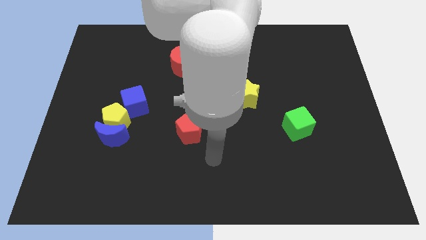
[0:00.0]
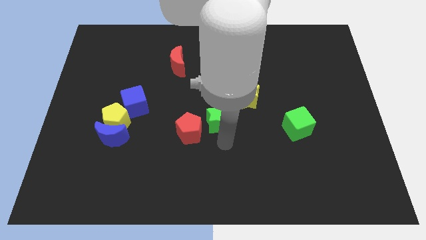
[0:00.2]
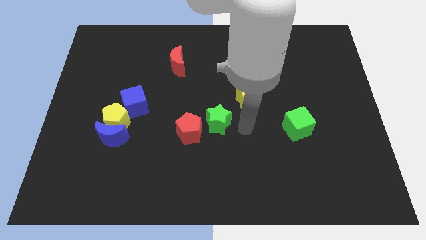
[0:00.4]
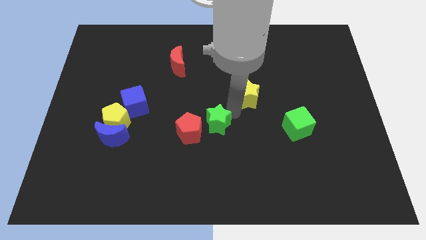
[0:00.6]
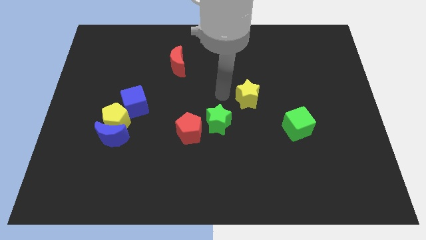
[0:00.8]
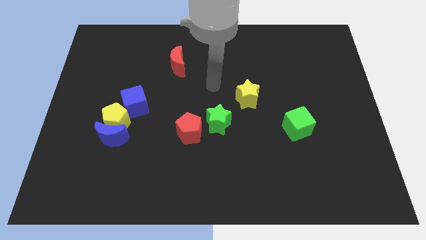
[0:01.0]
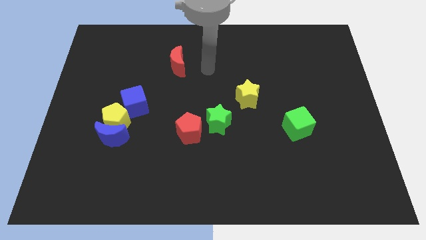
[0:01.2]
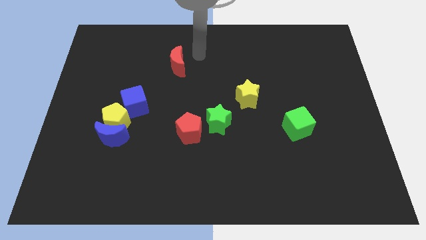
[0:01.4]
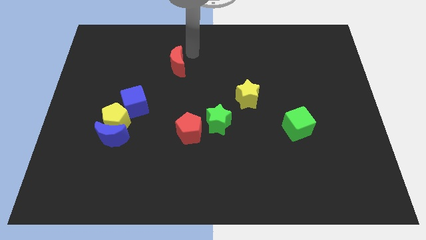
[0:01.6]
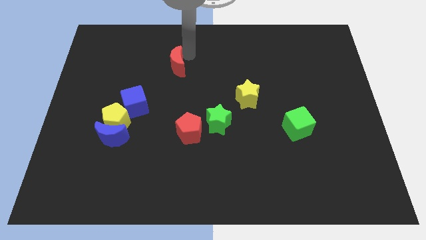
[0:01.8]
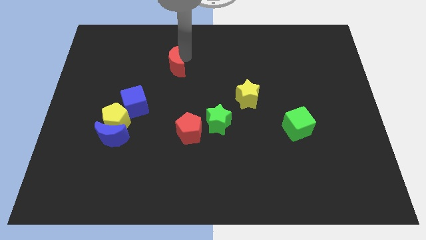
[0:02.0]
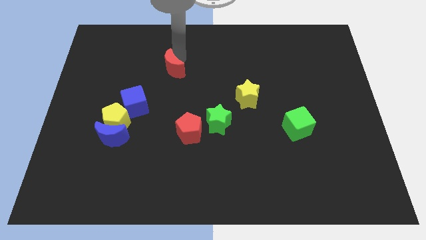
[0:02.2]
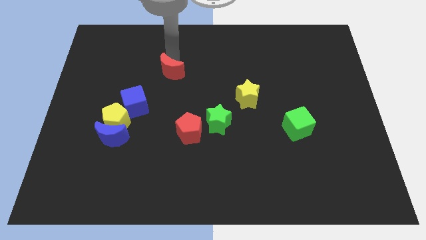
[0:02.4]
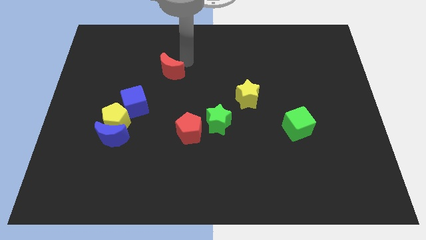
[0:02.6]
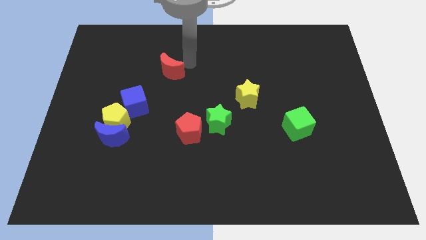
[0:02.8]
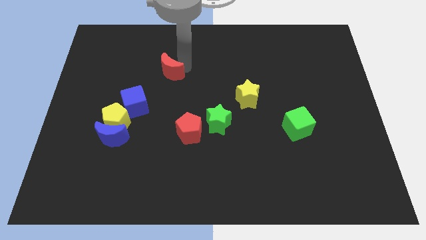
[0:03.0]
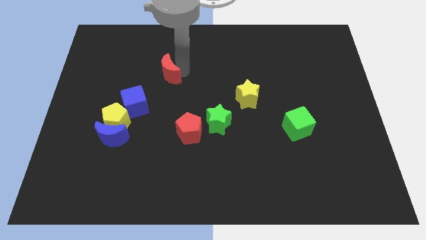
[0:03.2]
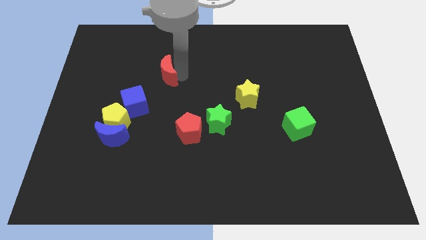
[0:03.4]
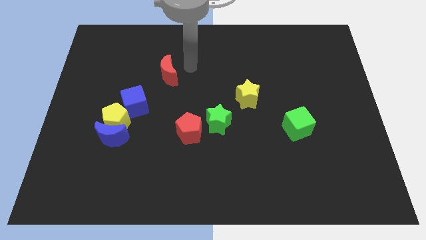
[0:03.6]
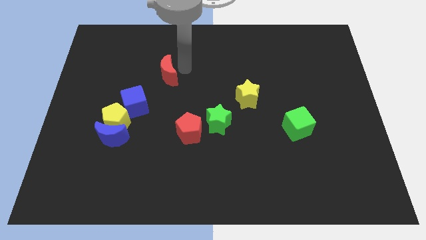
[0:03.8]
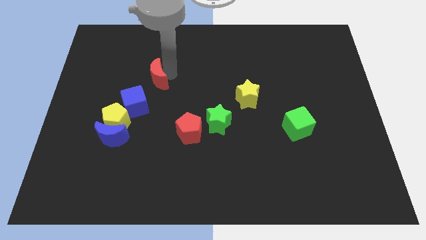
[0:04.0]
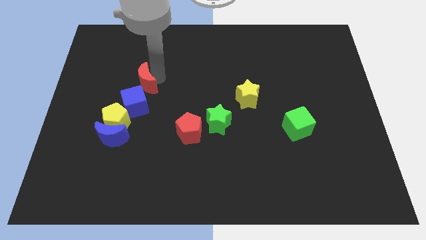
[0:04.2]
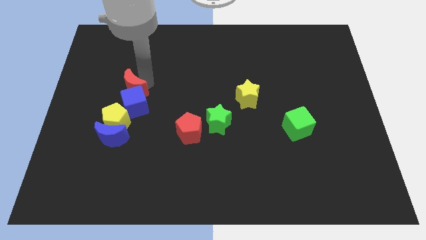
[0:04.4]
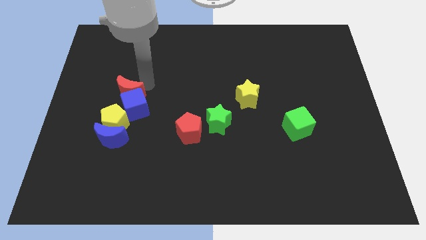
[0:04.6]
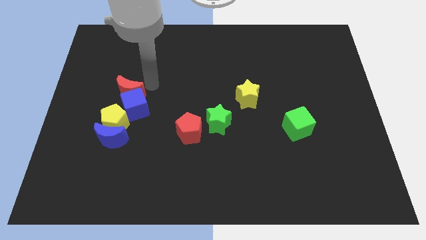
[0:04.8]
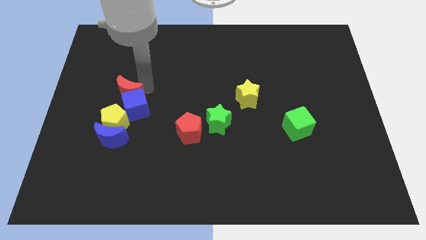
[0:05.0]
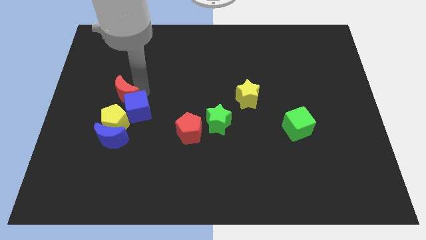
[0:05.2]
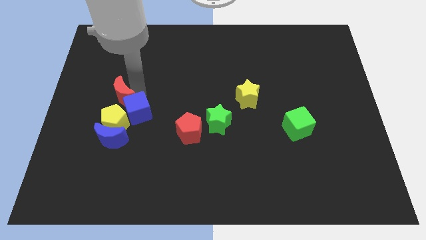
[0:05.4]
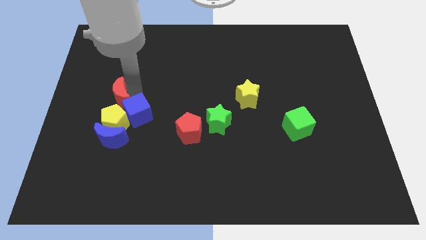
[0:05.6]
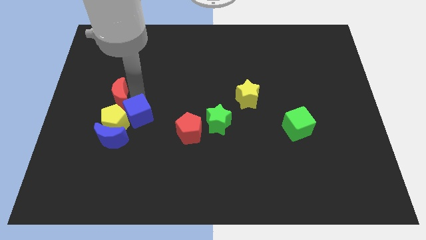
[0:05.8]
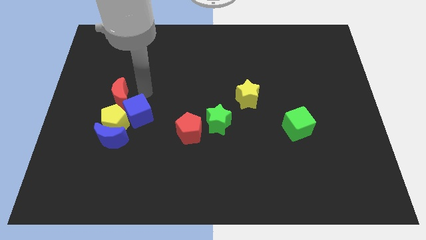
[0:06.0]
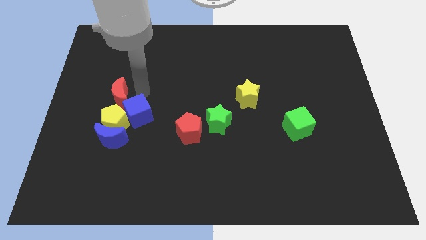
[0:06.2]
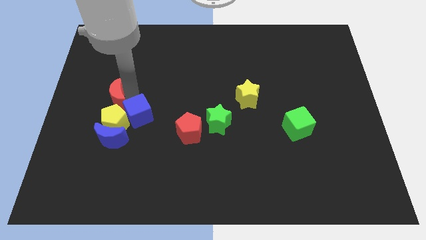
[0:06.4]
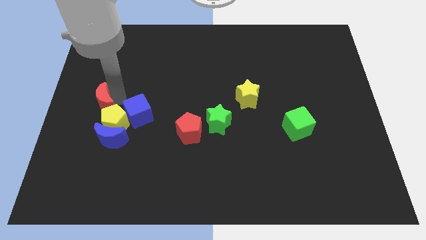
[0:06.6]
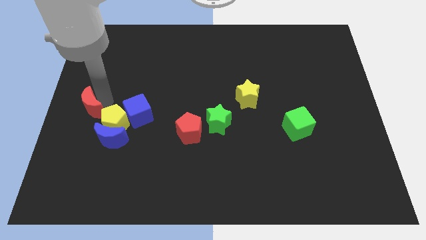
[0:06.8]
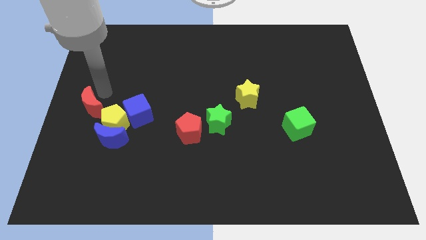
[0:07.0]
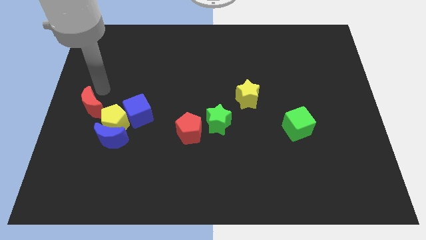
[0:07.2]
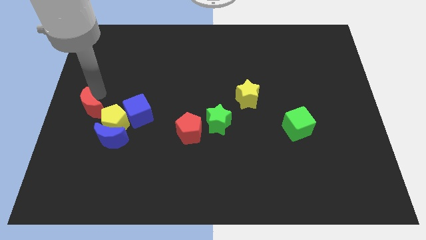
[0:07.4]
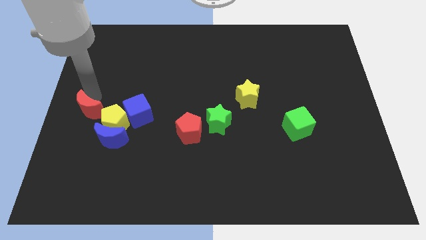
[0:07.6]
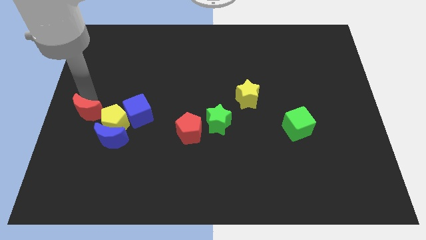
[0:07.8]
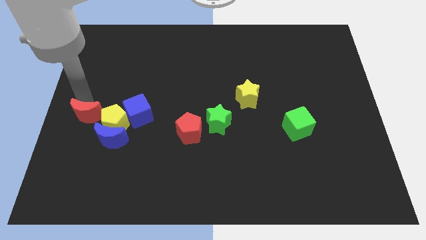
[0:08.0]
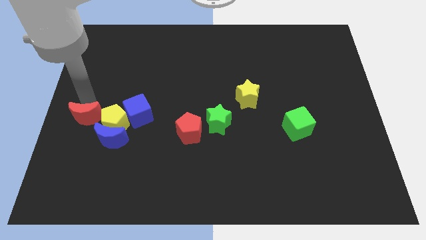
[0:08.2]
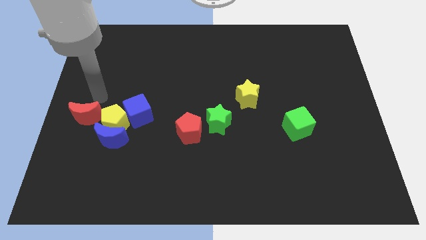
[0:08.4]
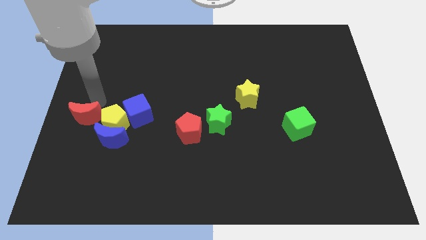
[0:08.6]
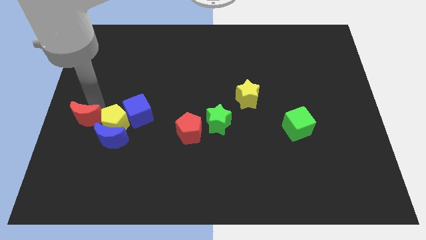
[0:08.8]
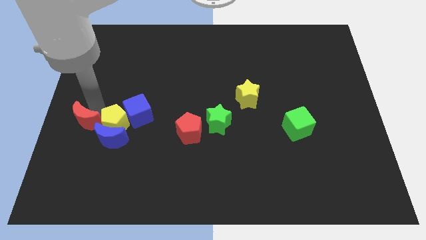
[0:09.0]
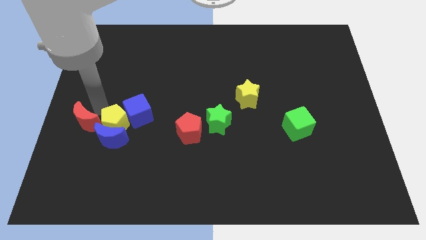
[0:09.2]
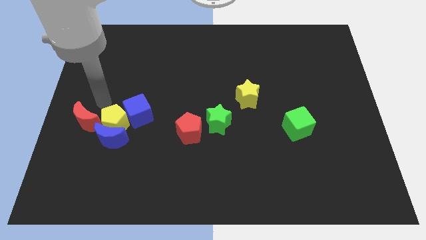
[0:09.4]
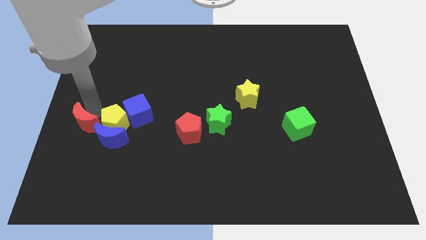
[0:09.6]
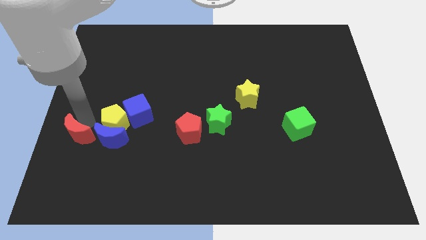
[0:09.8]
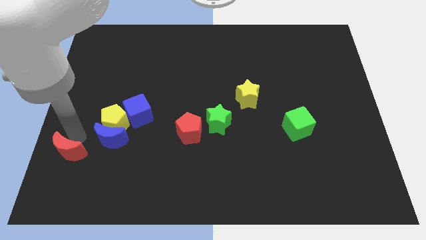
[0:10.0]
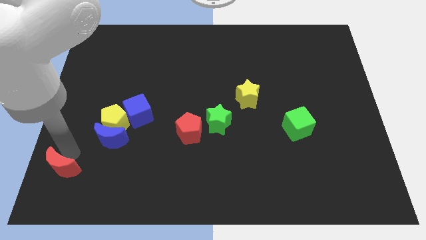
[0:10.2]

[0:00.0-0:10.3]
move the red moon to the bottom left of the board
